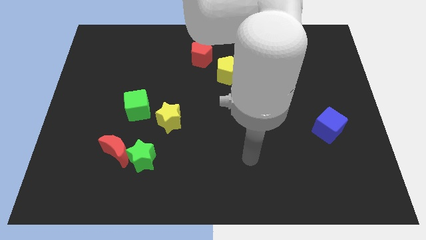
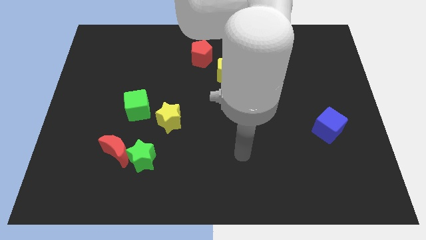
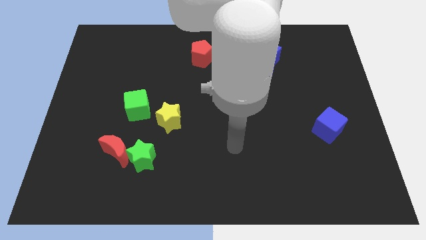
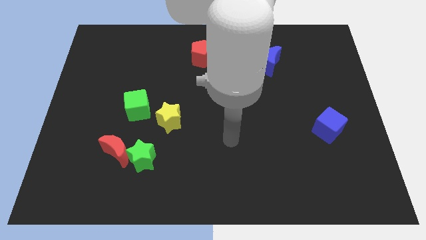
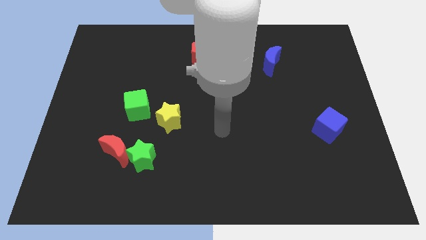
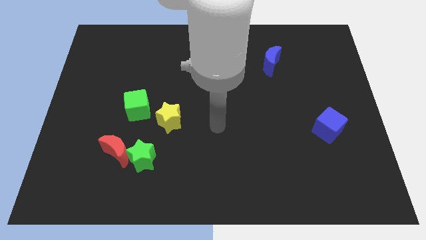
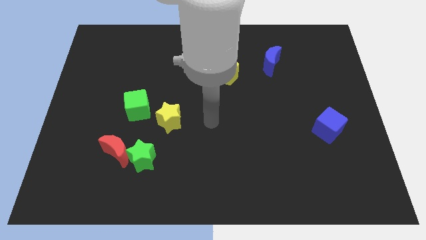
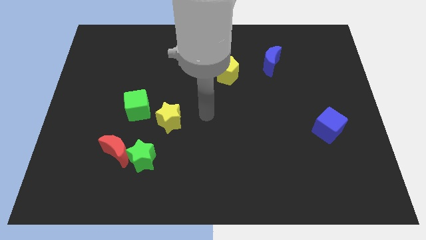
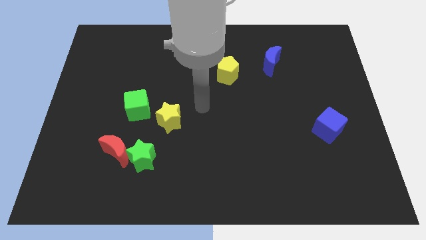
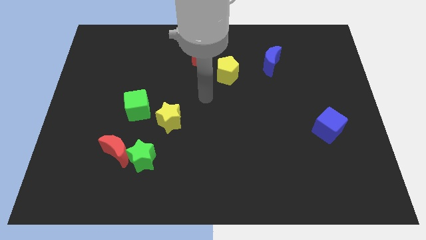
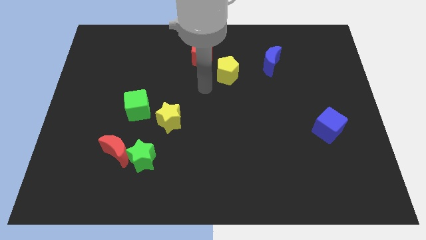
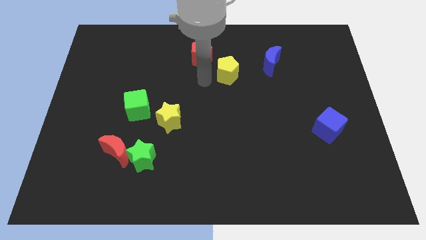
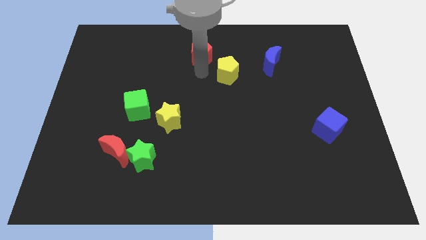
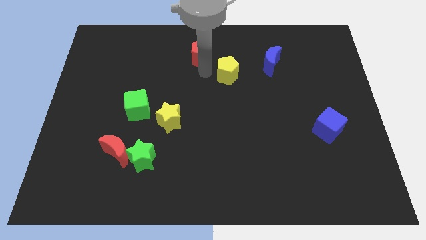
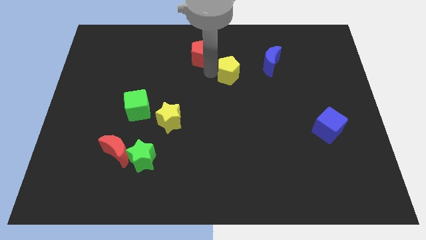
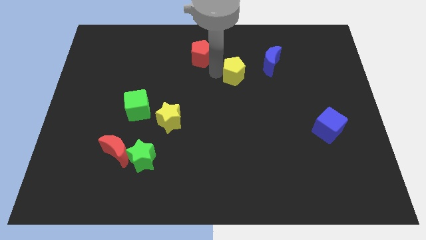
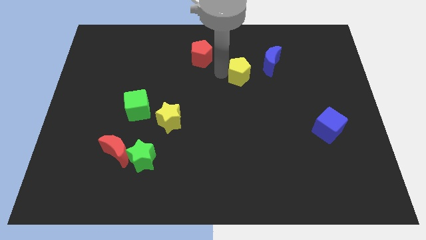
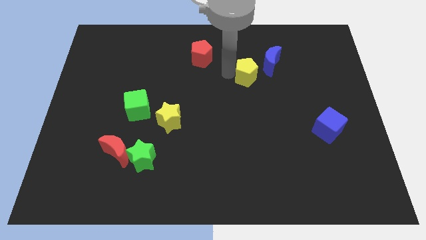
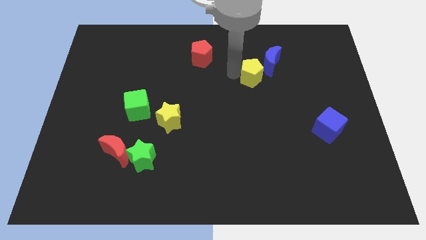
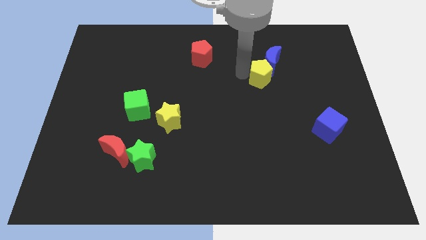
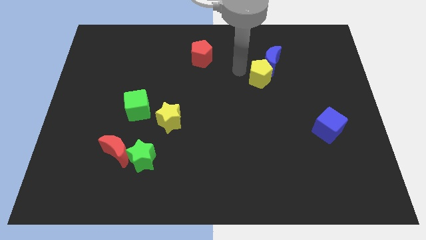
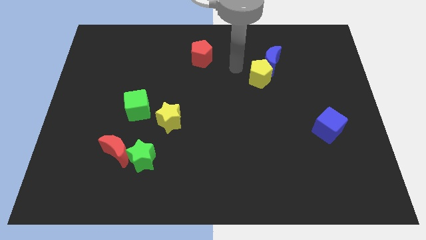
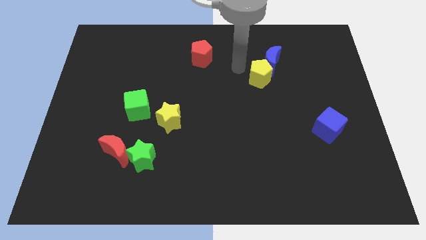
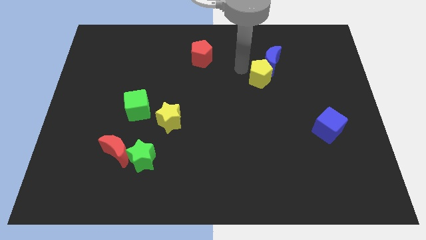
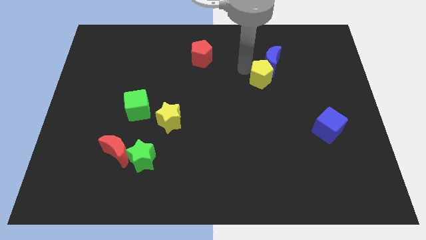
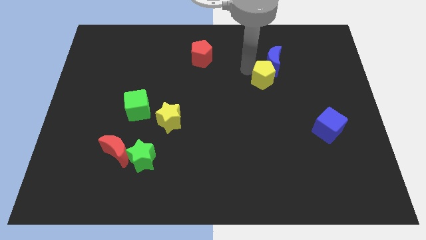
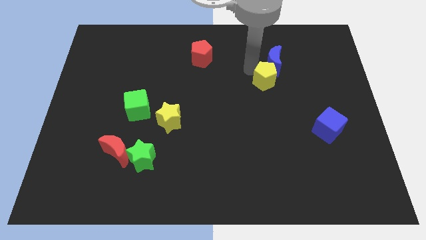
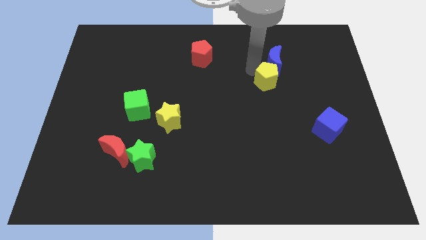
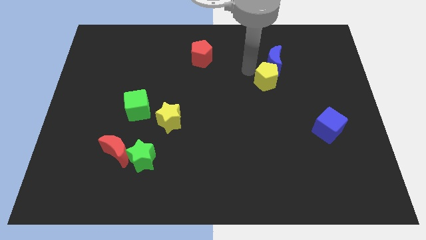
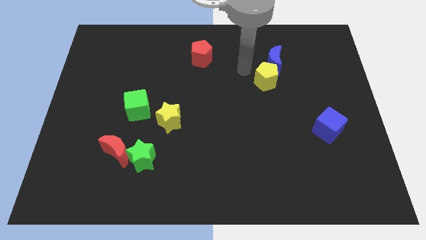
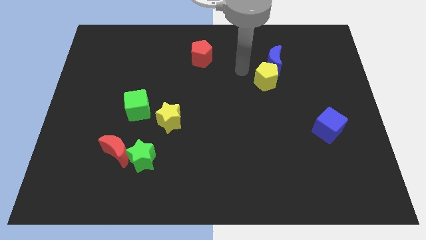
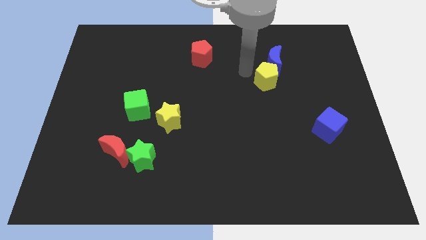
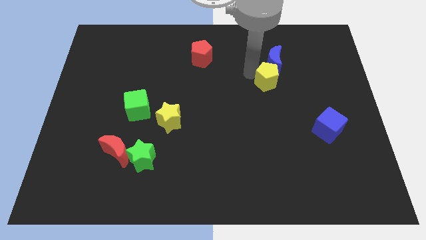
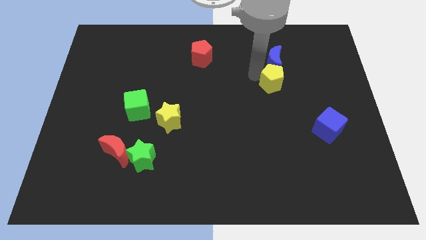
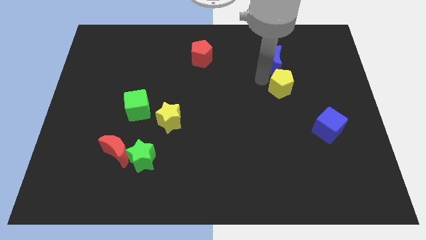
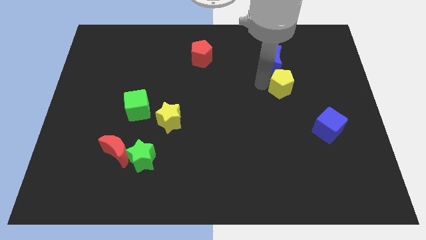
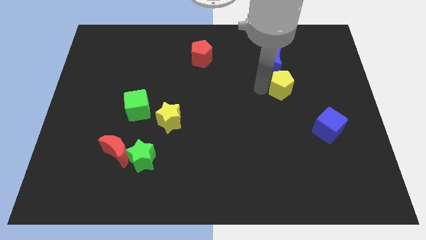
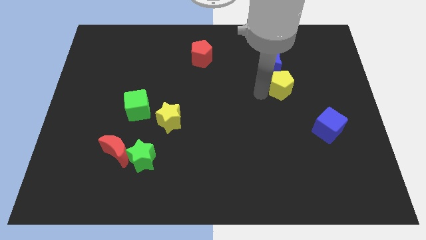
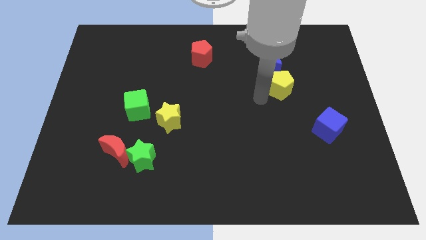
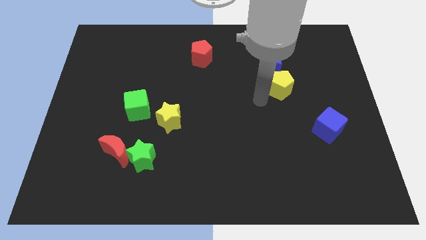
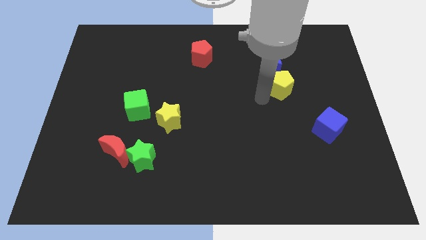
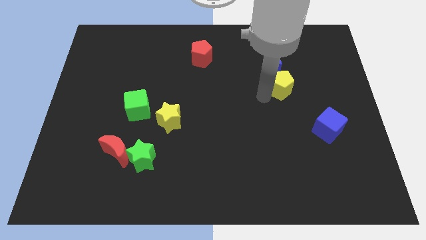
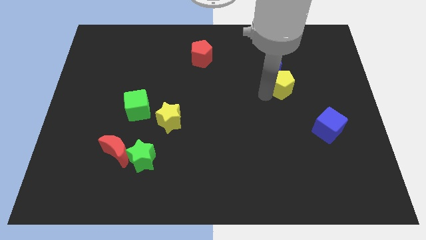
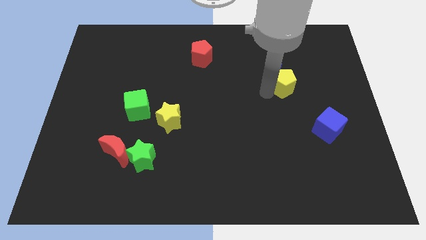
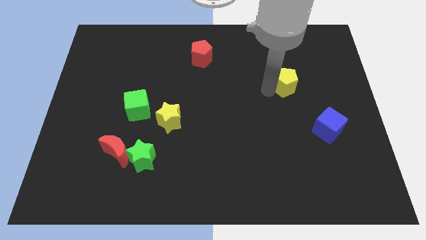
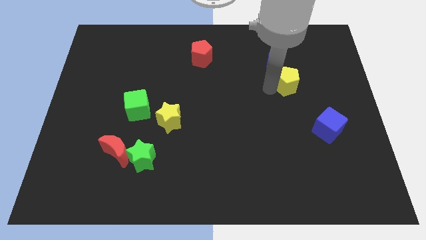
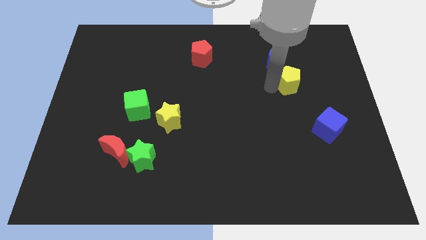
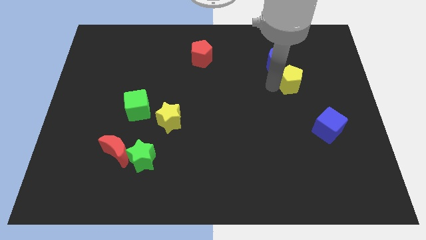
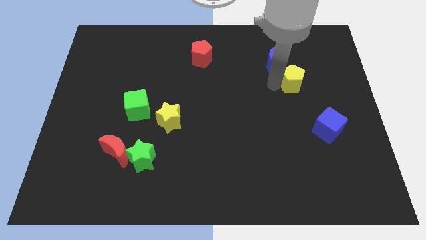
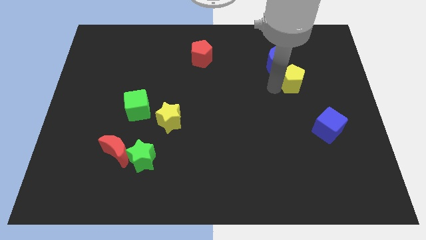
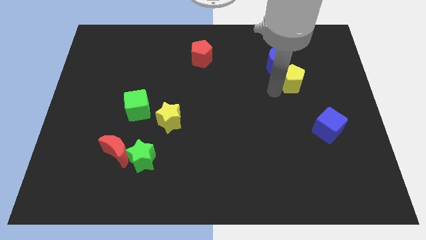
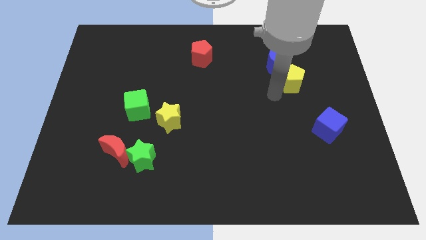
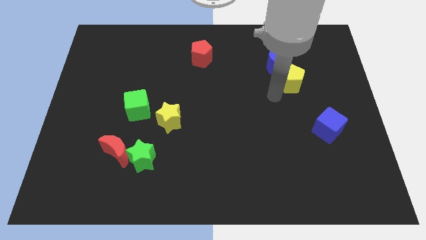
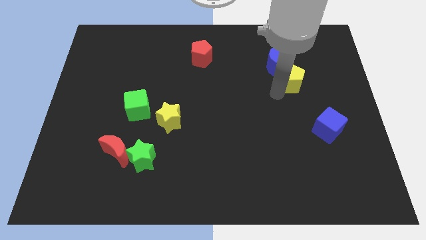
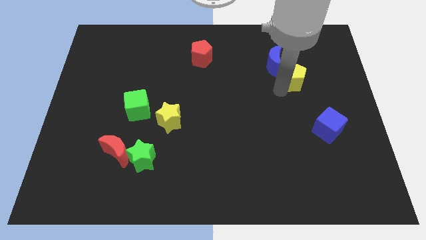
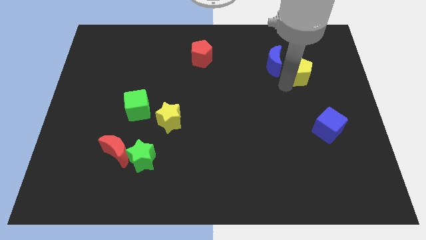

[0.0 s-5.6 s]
push the yellow pentagon to the right side of the blue moon

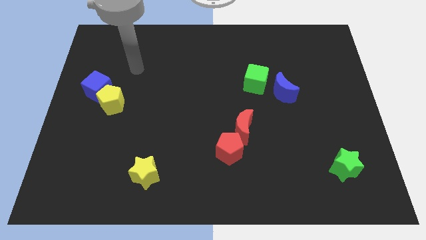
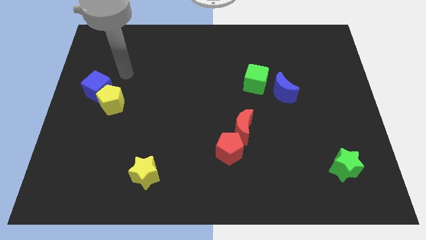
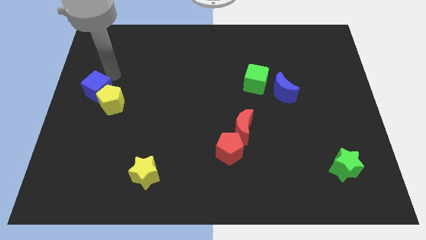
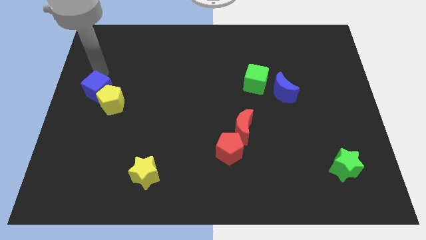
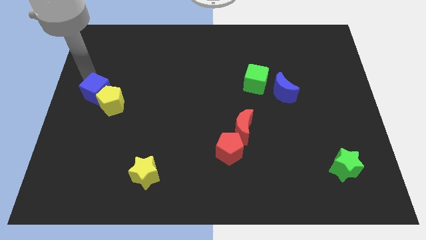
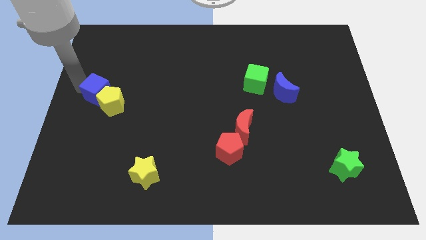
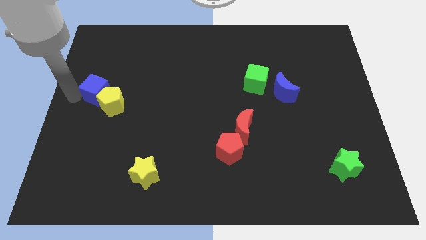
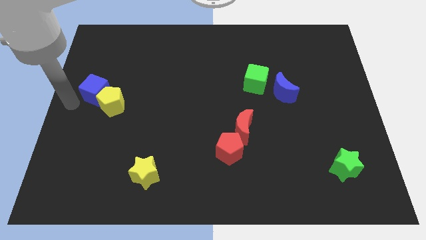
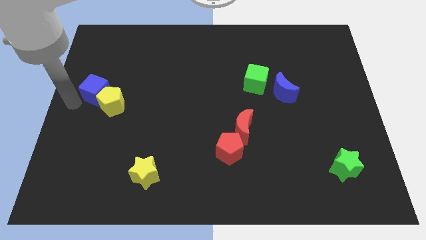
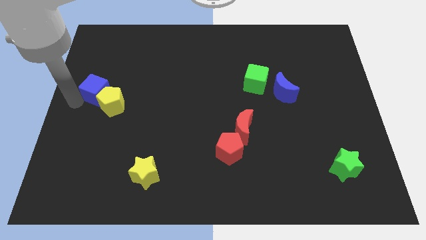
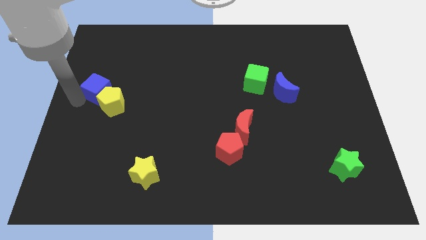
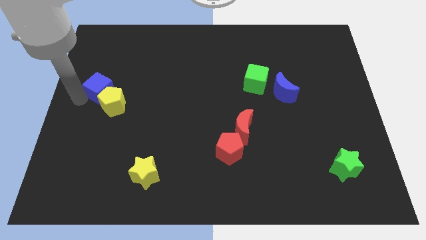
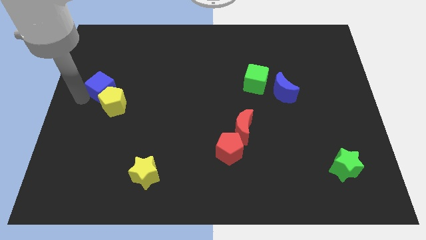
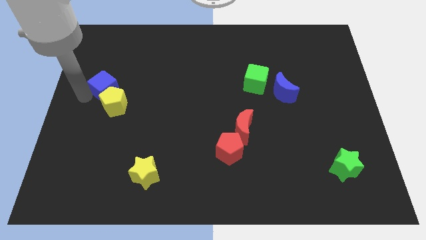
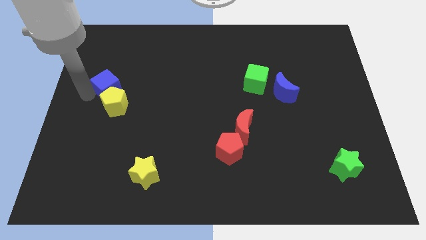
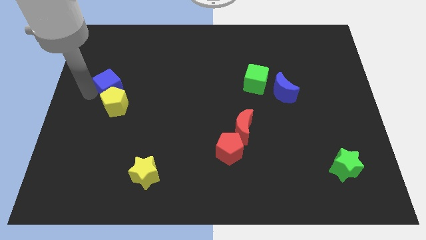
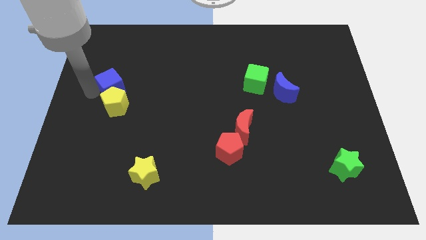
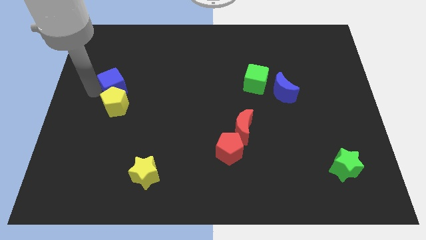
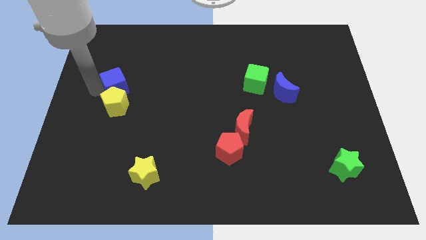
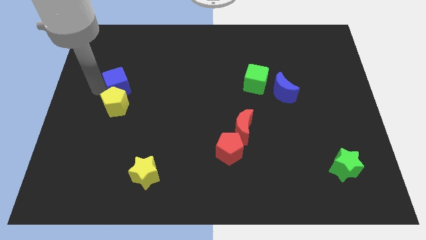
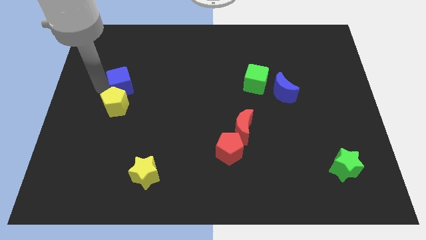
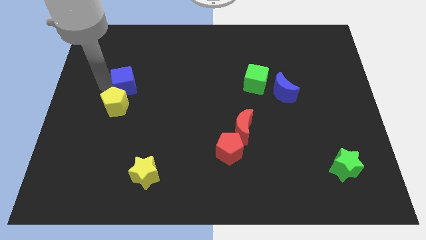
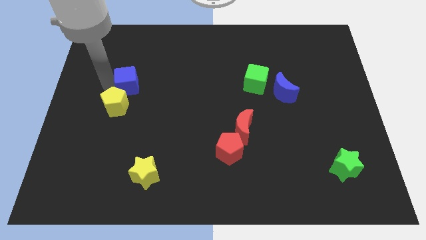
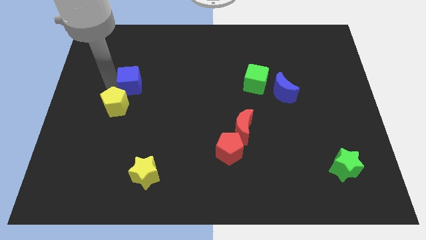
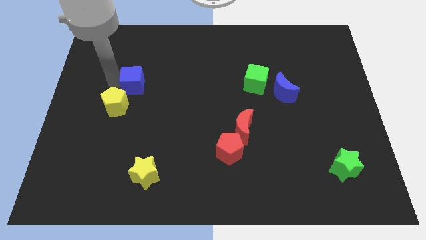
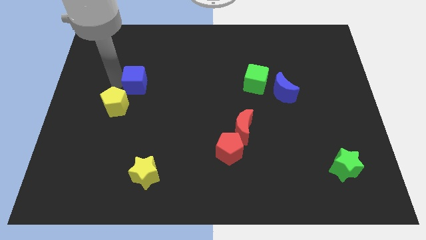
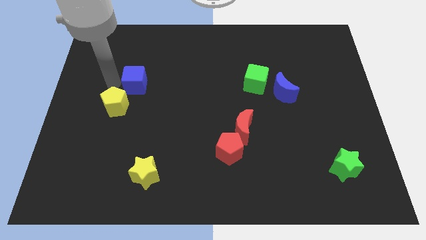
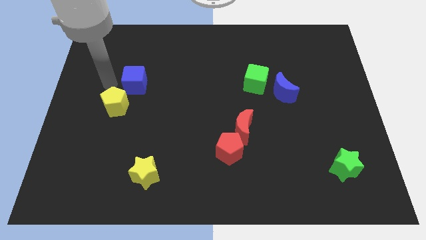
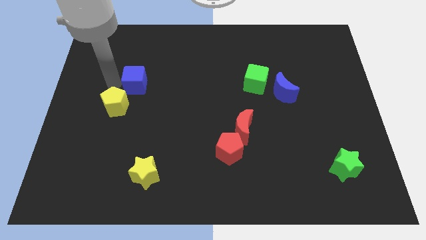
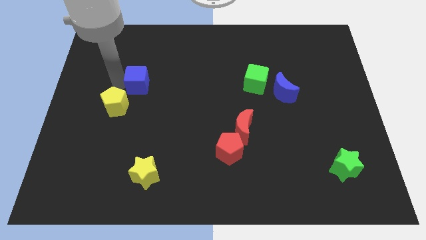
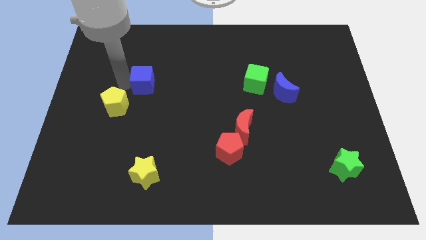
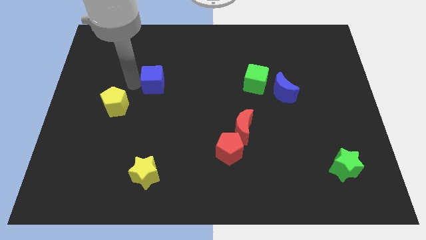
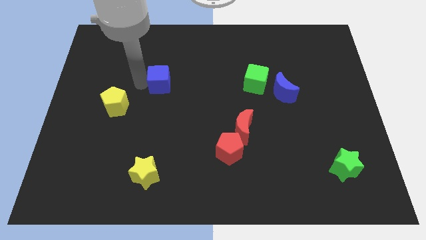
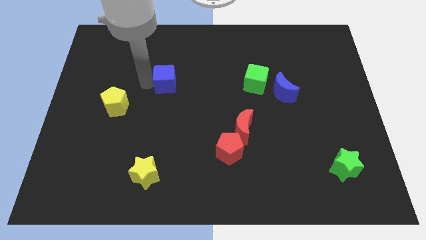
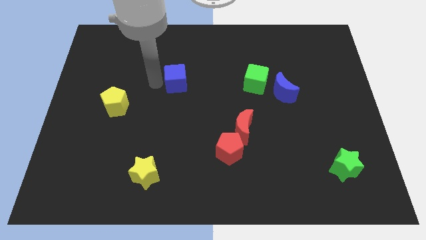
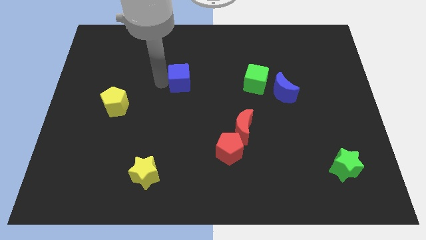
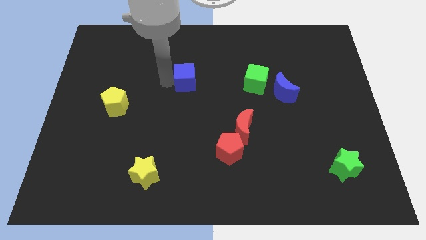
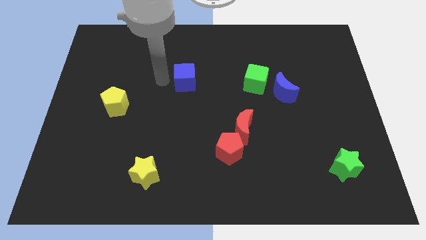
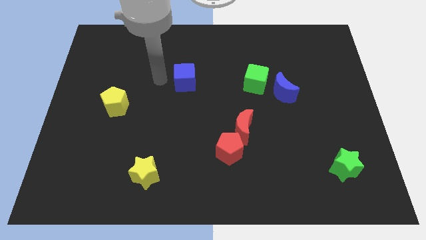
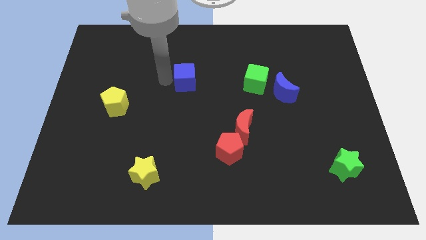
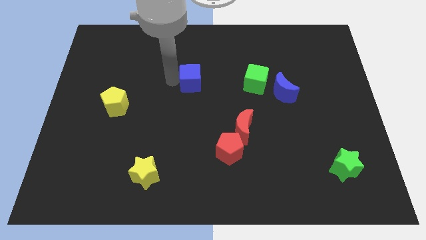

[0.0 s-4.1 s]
slide the blue cube to the left of the green cube
